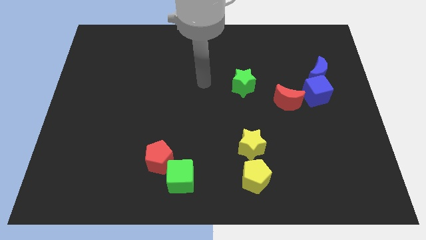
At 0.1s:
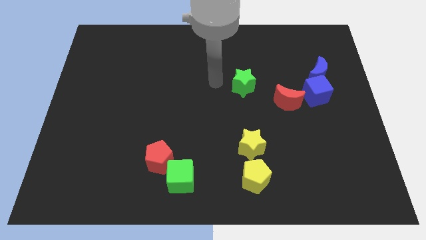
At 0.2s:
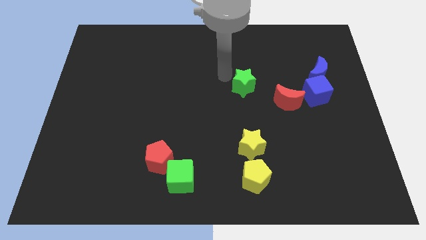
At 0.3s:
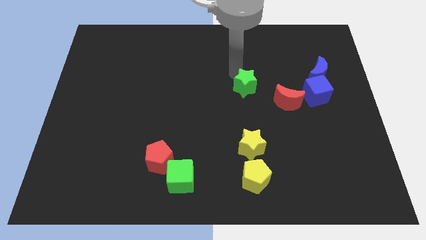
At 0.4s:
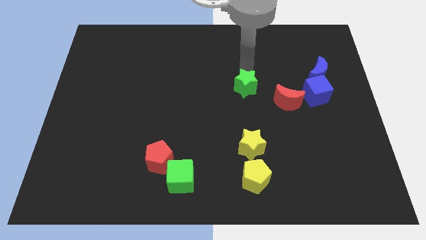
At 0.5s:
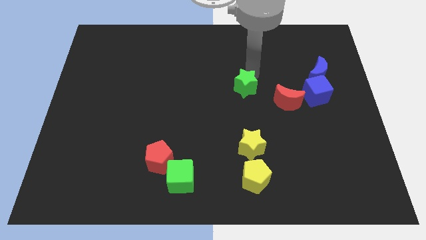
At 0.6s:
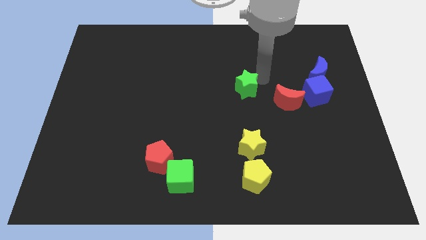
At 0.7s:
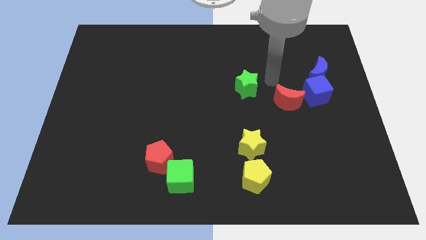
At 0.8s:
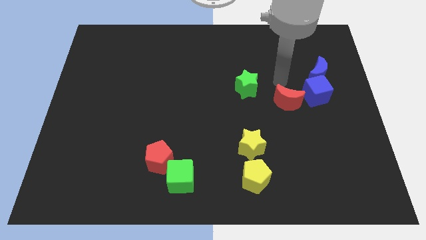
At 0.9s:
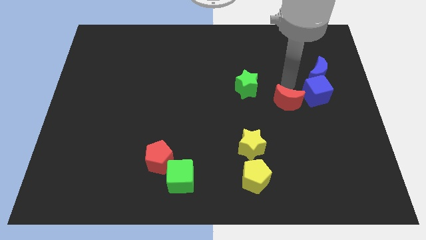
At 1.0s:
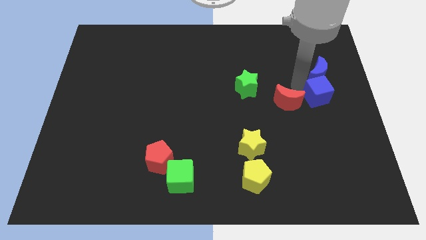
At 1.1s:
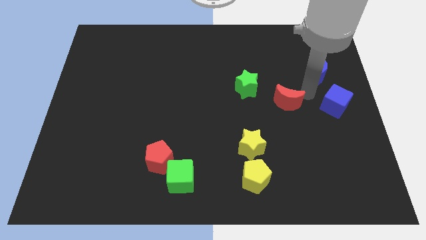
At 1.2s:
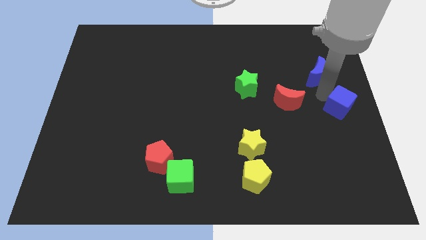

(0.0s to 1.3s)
pull the blue moon apart from the blue cube

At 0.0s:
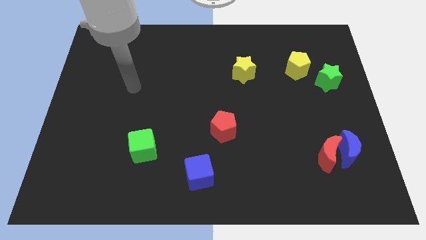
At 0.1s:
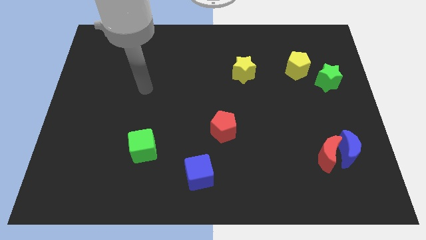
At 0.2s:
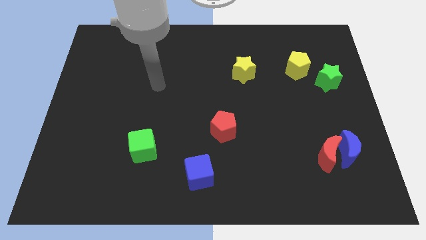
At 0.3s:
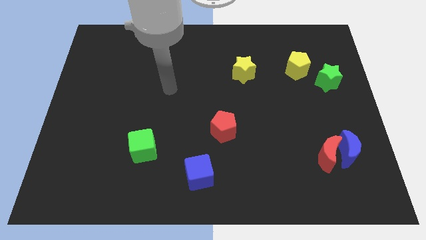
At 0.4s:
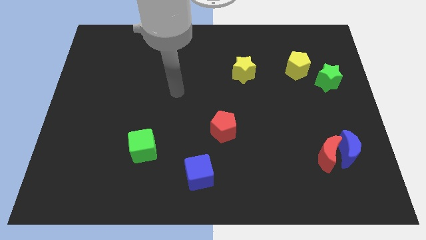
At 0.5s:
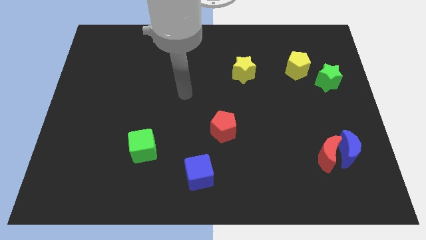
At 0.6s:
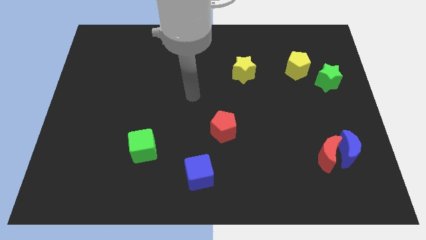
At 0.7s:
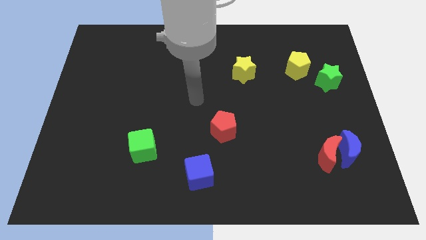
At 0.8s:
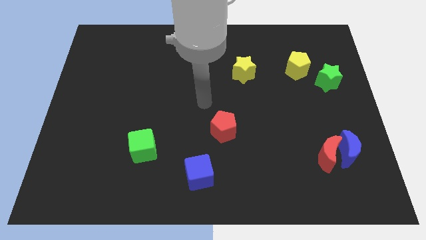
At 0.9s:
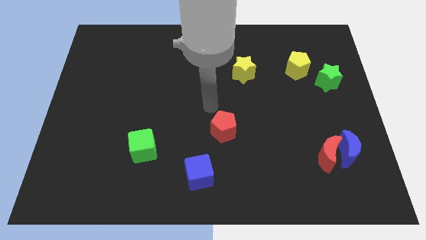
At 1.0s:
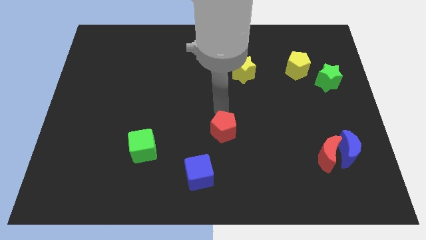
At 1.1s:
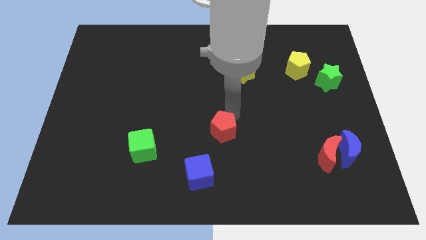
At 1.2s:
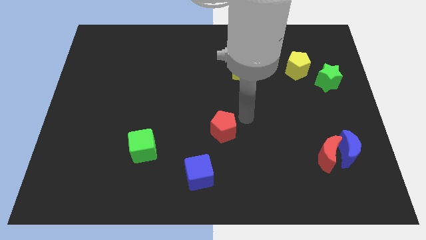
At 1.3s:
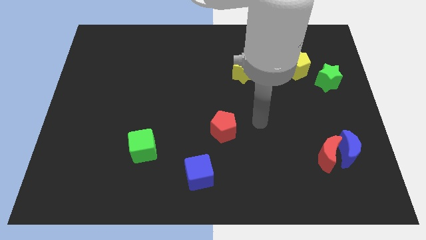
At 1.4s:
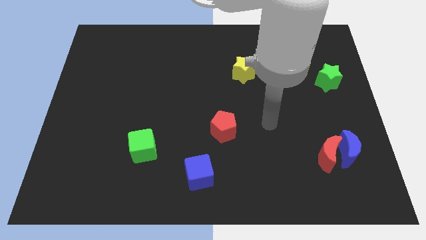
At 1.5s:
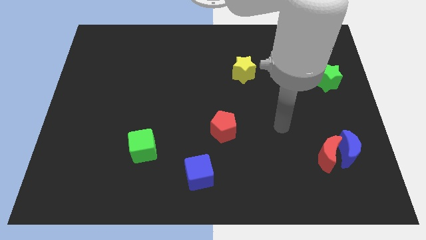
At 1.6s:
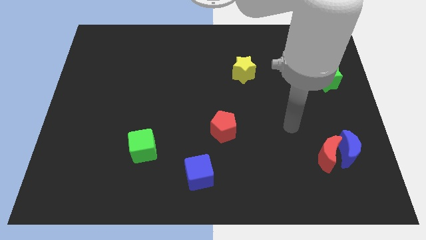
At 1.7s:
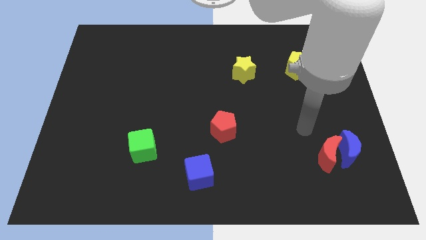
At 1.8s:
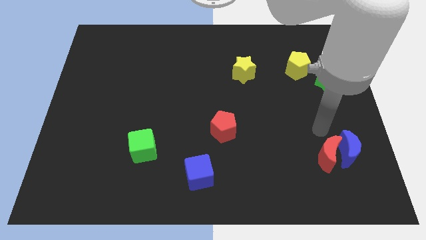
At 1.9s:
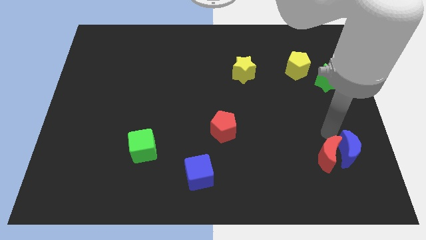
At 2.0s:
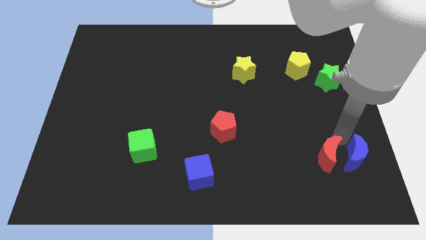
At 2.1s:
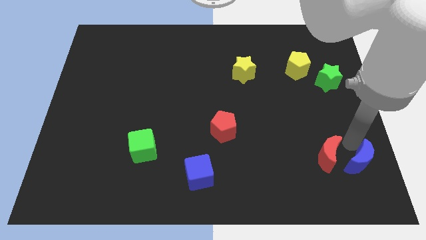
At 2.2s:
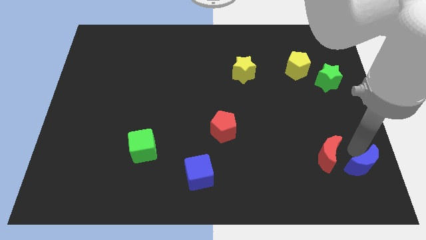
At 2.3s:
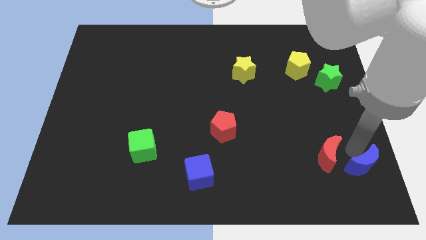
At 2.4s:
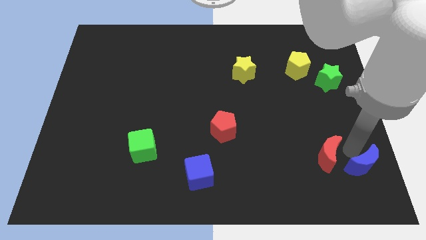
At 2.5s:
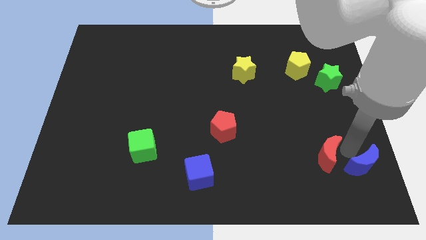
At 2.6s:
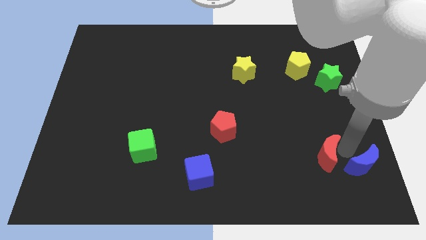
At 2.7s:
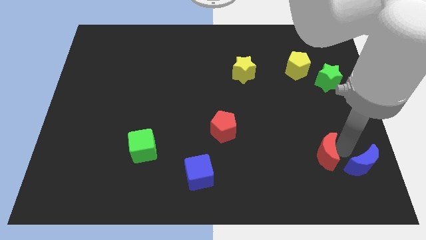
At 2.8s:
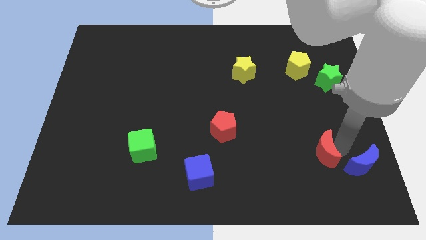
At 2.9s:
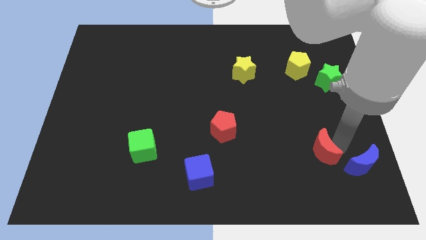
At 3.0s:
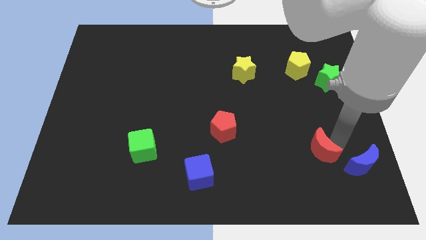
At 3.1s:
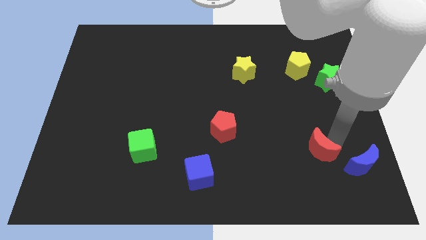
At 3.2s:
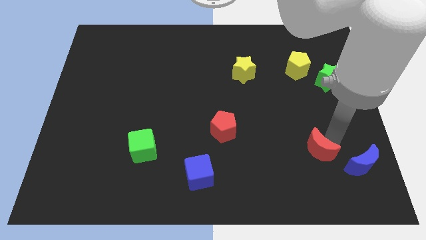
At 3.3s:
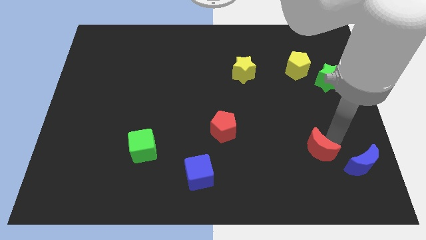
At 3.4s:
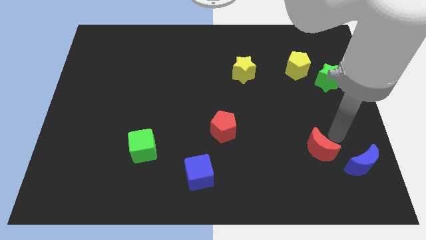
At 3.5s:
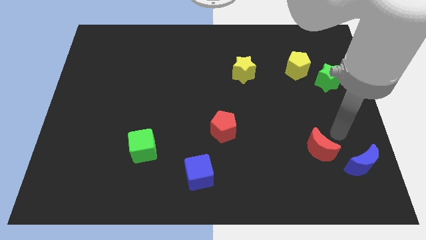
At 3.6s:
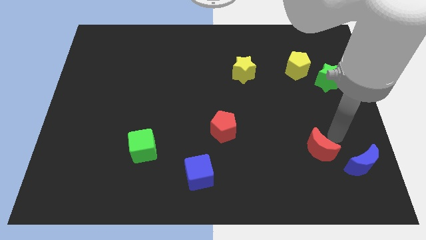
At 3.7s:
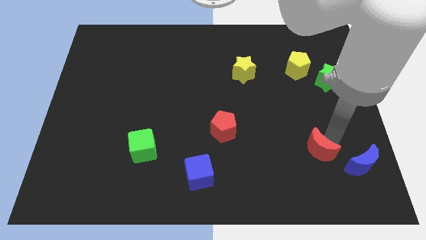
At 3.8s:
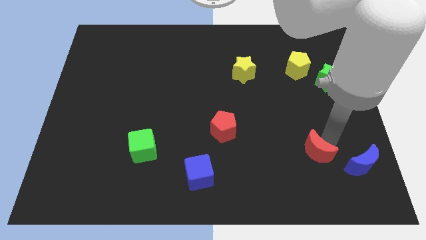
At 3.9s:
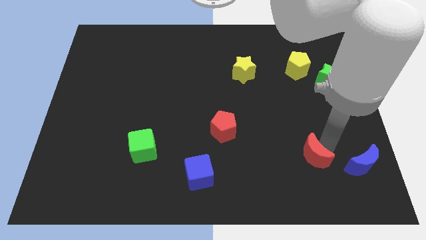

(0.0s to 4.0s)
pull the red moon apart from the blue moon

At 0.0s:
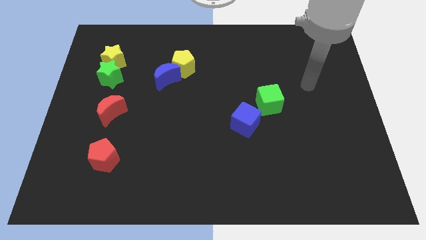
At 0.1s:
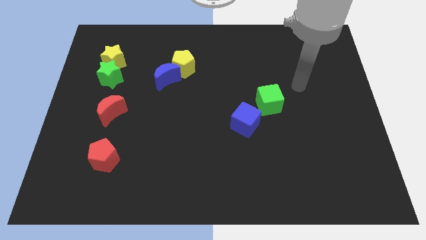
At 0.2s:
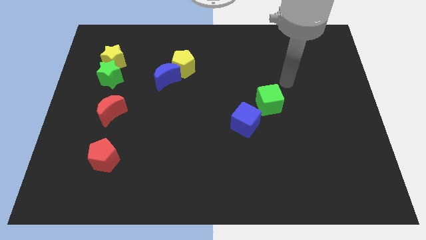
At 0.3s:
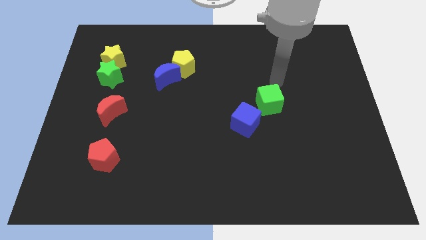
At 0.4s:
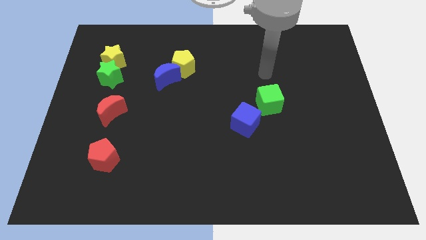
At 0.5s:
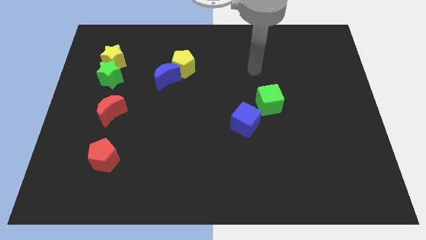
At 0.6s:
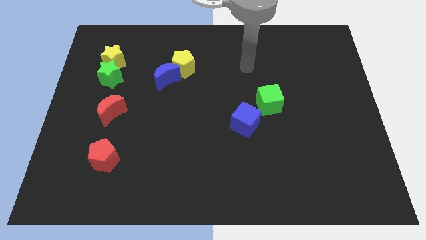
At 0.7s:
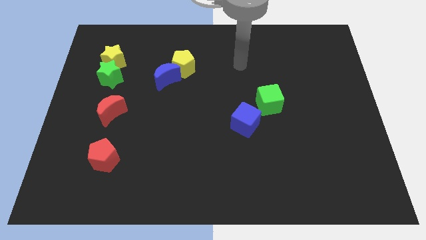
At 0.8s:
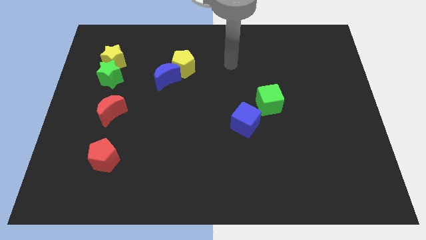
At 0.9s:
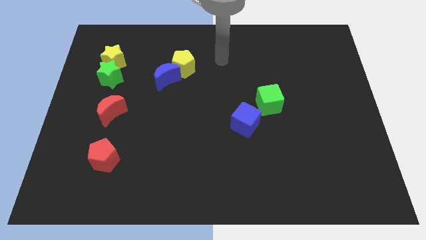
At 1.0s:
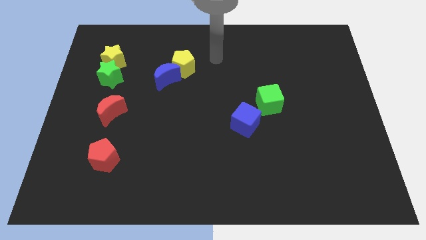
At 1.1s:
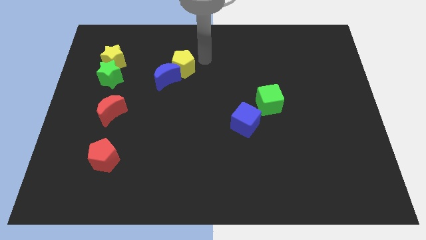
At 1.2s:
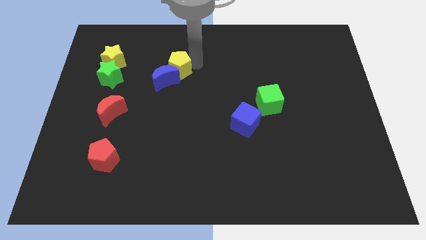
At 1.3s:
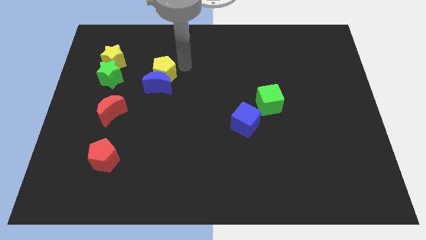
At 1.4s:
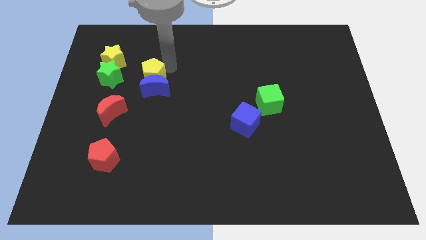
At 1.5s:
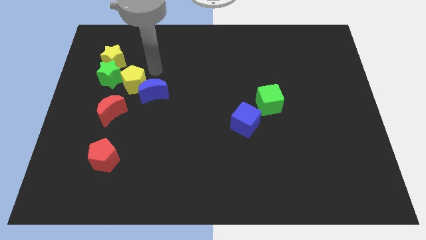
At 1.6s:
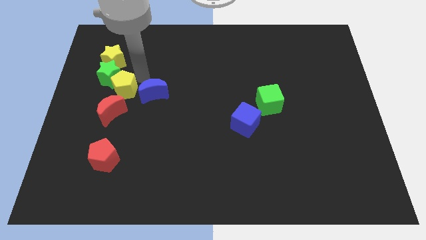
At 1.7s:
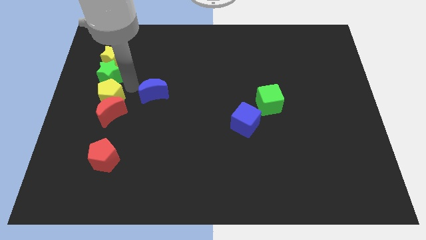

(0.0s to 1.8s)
pull the blue moon apart from the yellow pentagon

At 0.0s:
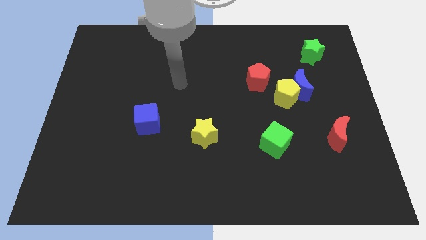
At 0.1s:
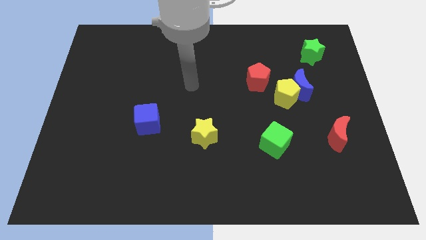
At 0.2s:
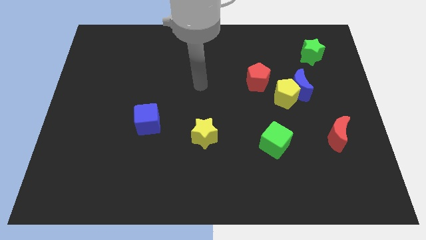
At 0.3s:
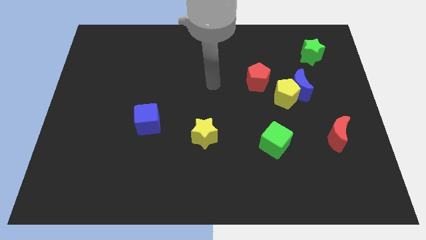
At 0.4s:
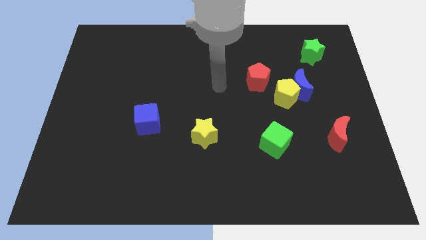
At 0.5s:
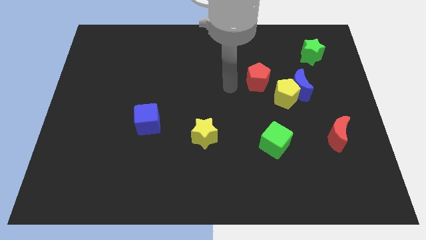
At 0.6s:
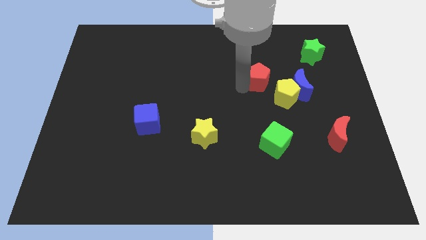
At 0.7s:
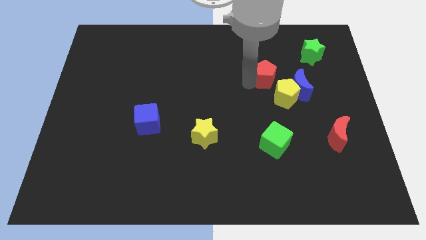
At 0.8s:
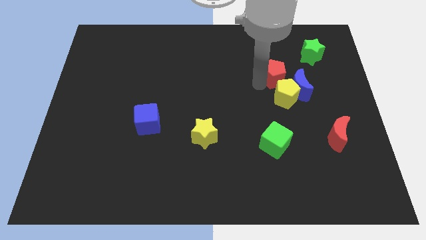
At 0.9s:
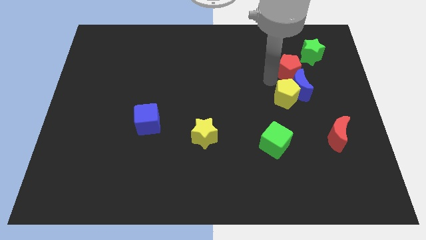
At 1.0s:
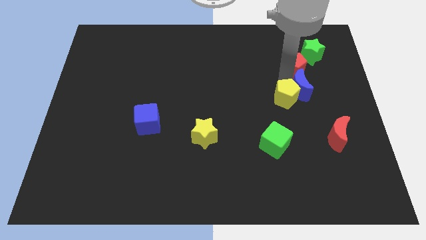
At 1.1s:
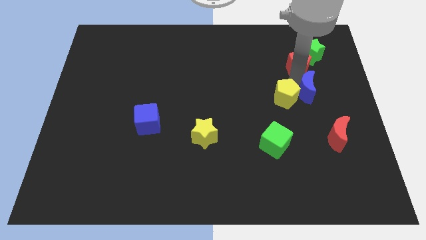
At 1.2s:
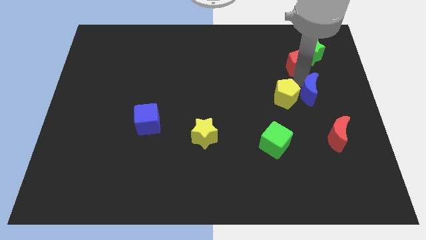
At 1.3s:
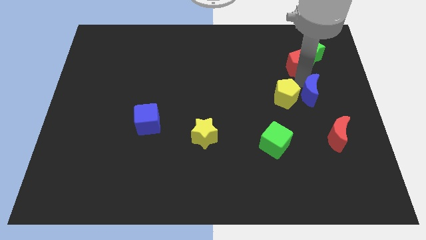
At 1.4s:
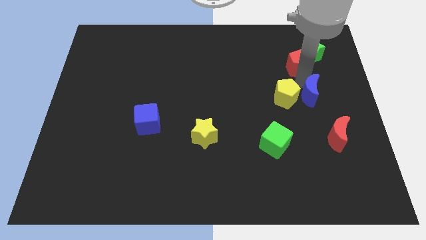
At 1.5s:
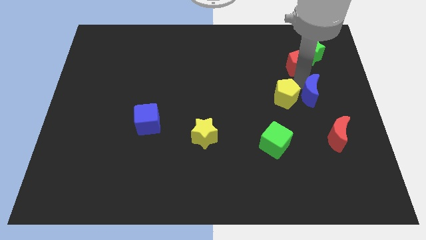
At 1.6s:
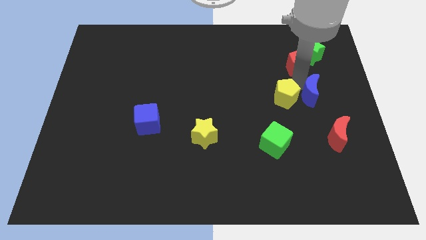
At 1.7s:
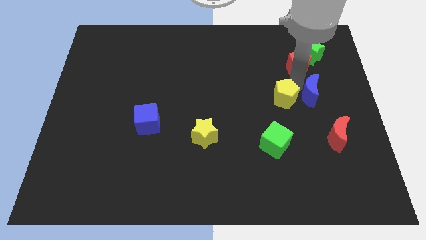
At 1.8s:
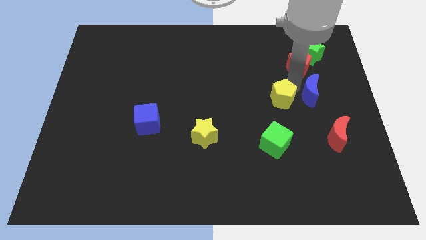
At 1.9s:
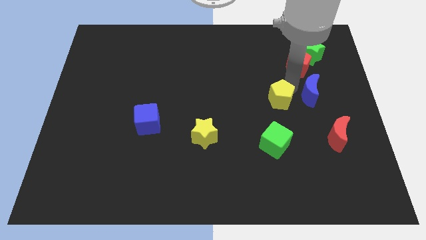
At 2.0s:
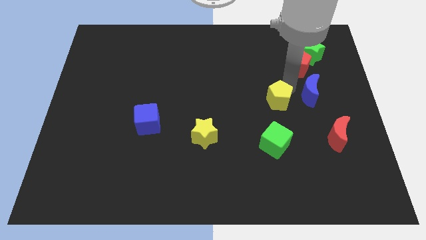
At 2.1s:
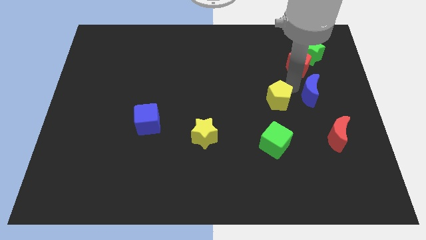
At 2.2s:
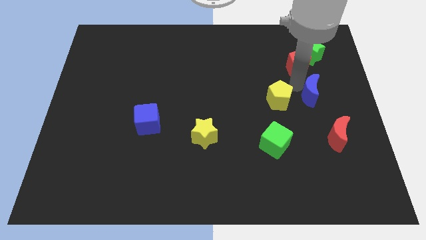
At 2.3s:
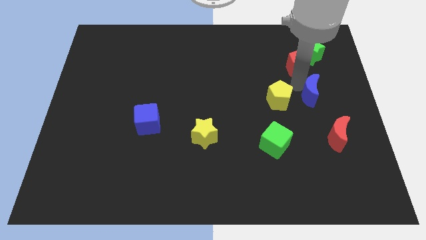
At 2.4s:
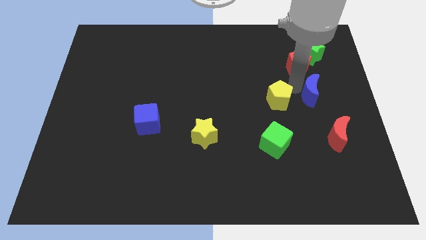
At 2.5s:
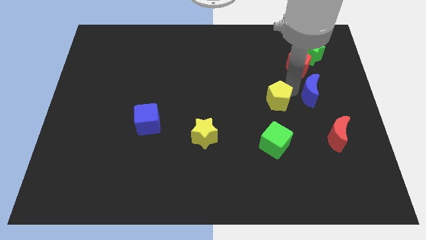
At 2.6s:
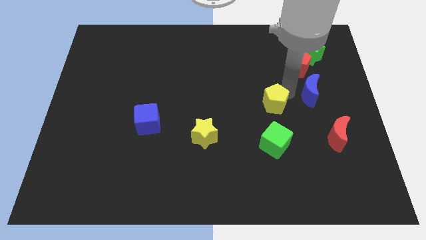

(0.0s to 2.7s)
move the yellow pentagon away from the blue moon and red pentagon
